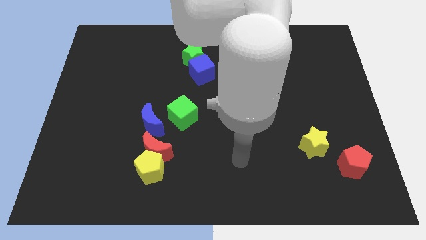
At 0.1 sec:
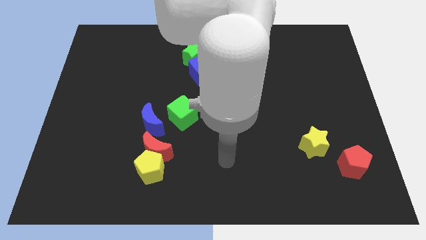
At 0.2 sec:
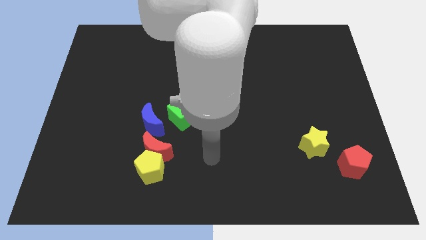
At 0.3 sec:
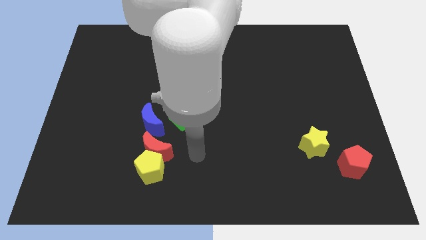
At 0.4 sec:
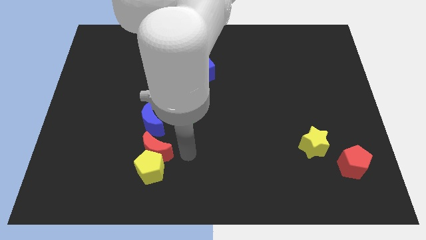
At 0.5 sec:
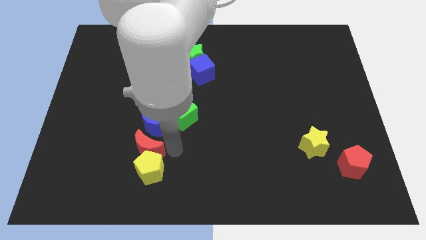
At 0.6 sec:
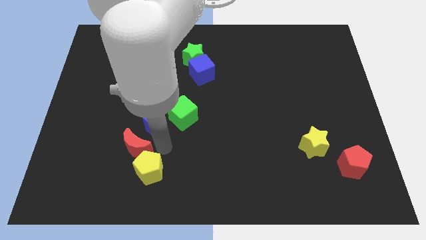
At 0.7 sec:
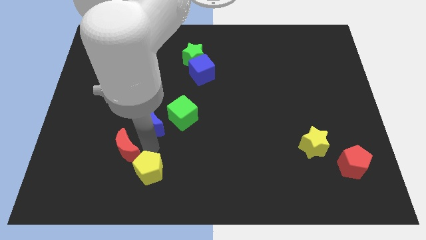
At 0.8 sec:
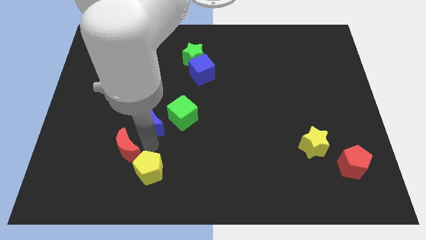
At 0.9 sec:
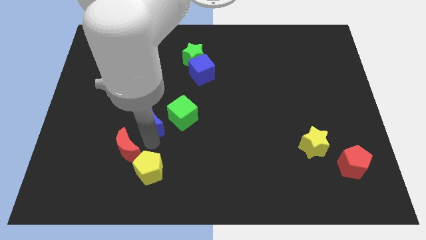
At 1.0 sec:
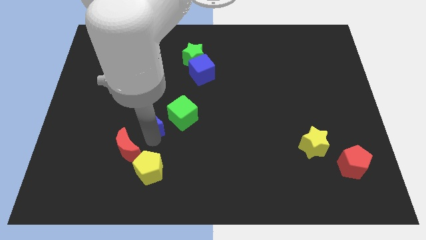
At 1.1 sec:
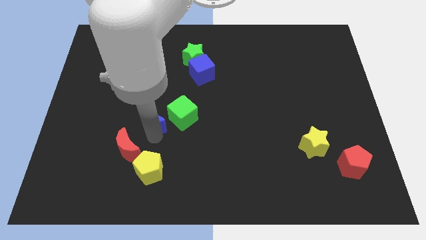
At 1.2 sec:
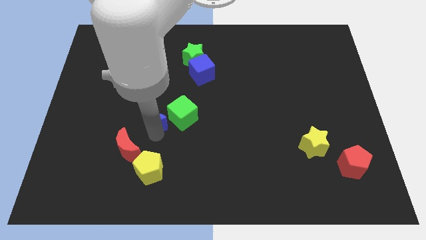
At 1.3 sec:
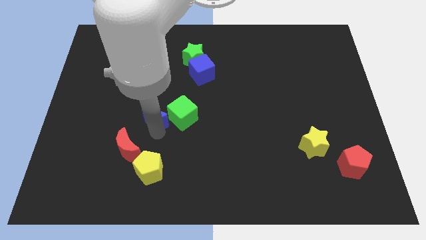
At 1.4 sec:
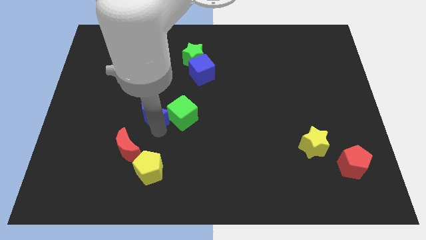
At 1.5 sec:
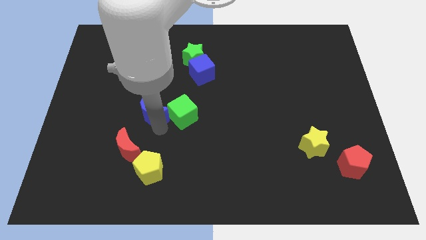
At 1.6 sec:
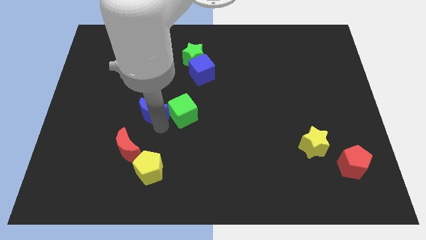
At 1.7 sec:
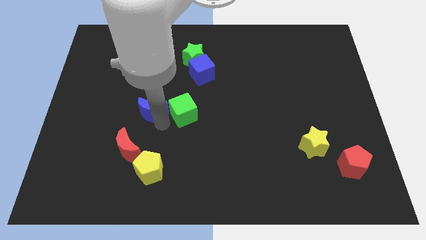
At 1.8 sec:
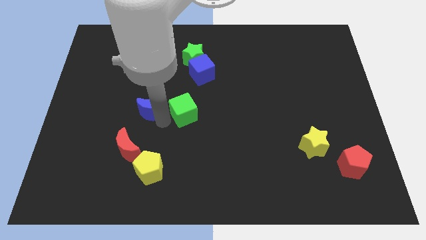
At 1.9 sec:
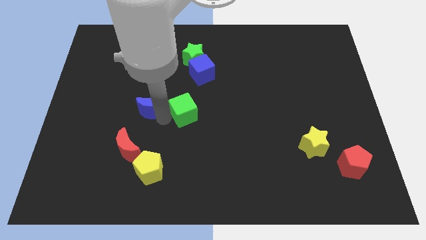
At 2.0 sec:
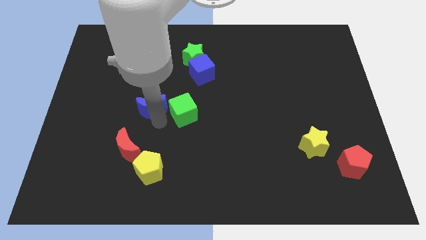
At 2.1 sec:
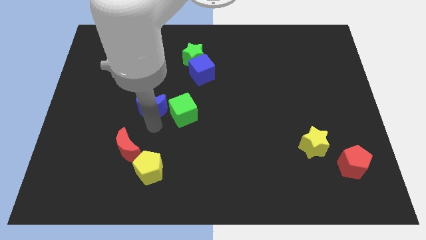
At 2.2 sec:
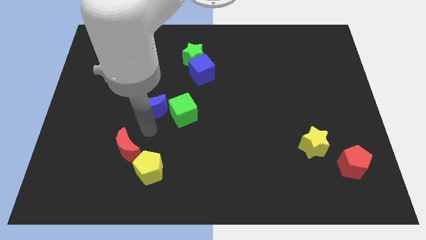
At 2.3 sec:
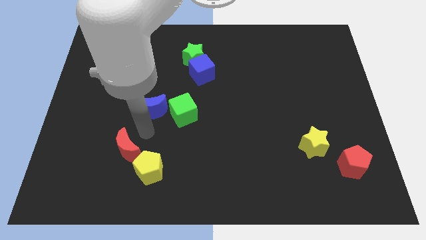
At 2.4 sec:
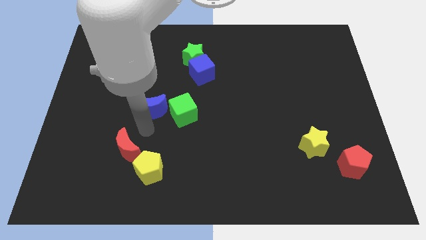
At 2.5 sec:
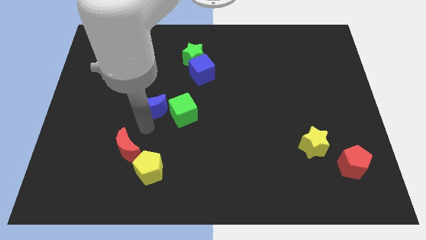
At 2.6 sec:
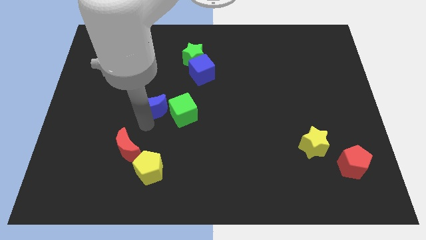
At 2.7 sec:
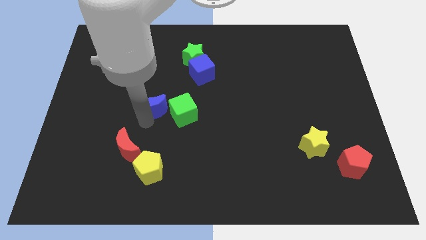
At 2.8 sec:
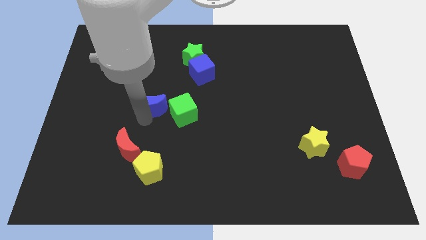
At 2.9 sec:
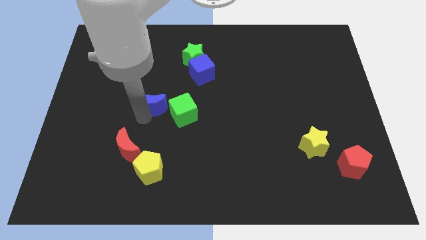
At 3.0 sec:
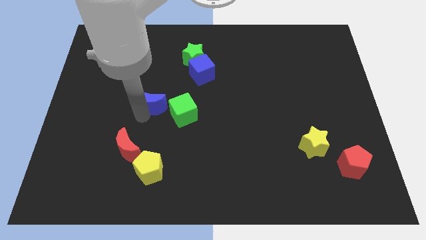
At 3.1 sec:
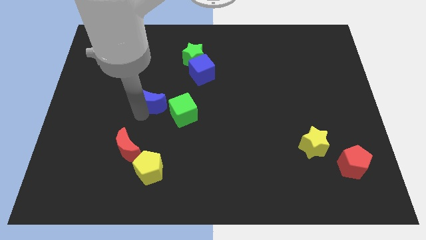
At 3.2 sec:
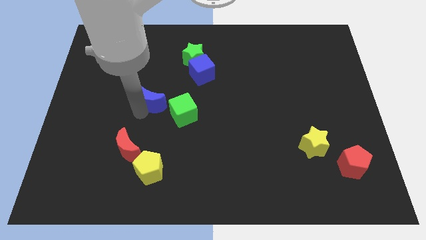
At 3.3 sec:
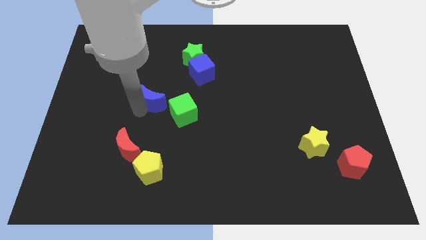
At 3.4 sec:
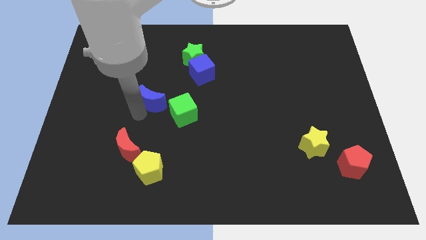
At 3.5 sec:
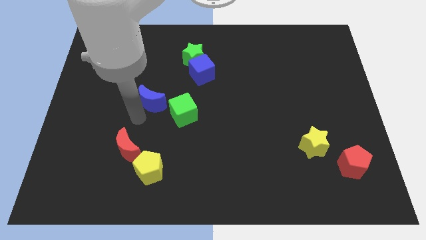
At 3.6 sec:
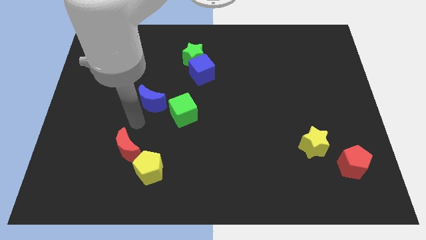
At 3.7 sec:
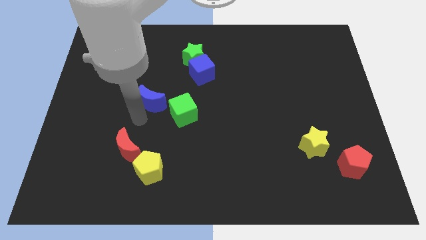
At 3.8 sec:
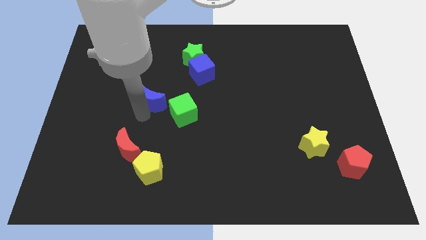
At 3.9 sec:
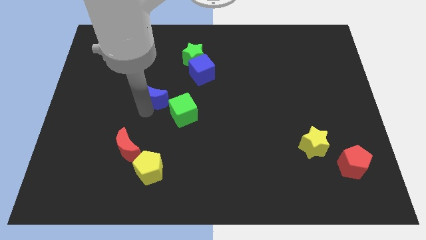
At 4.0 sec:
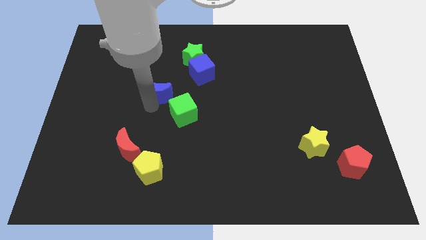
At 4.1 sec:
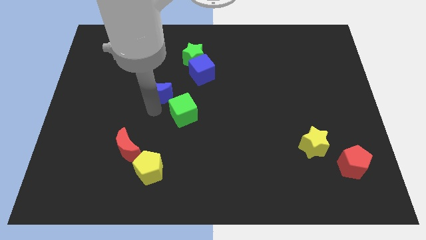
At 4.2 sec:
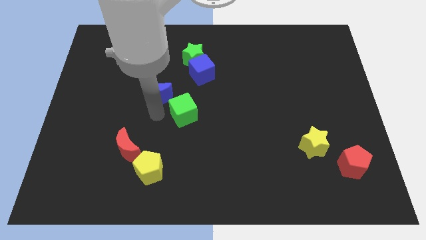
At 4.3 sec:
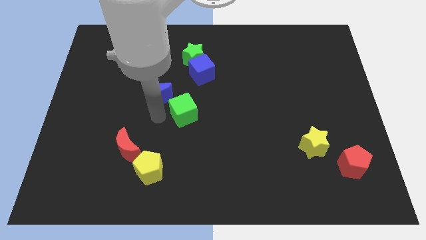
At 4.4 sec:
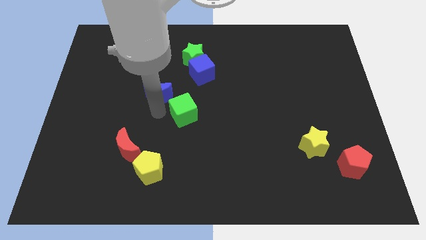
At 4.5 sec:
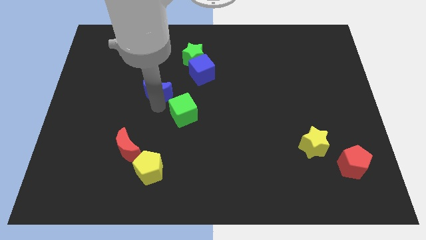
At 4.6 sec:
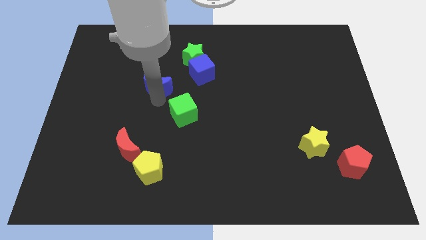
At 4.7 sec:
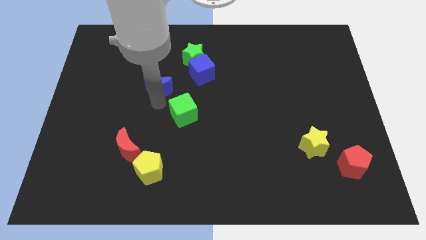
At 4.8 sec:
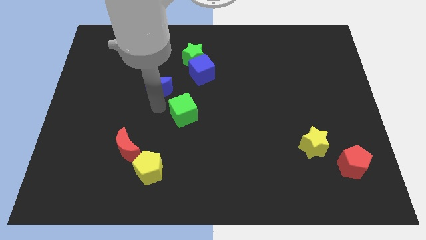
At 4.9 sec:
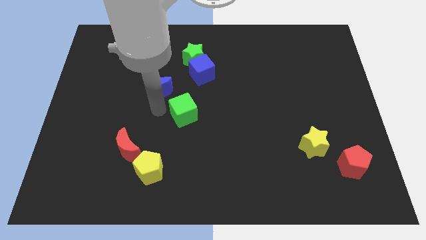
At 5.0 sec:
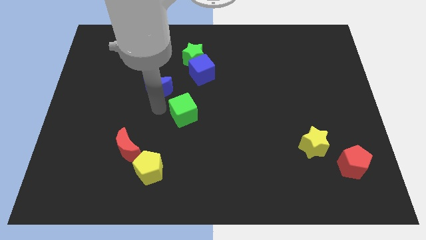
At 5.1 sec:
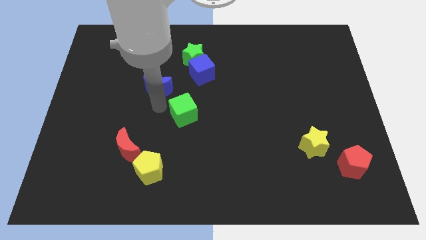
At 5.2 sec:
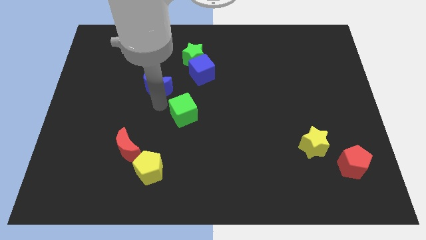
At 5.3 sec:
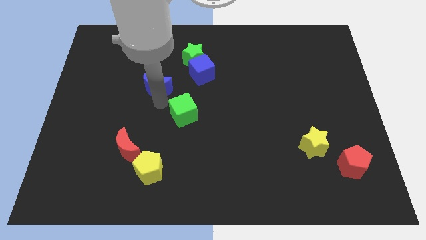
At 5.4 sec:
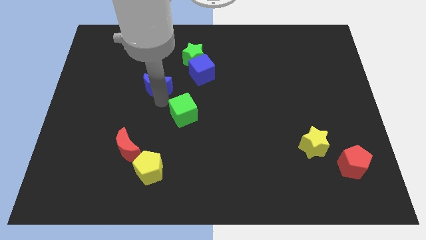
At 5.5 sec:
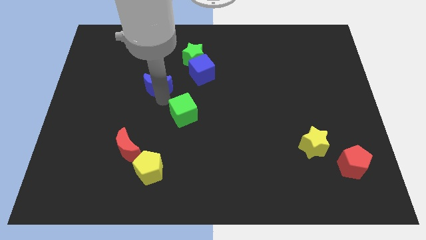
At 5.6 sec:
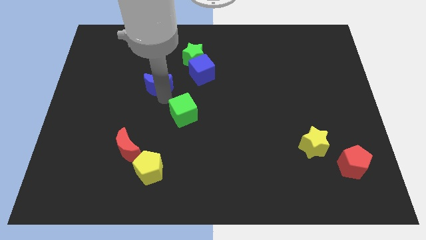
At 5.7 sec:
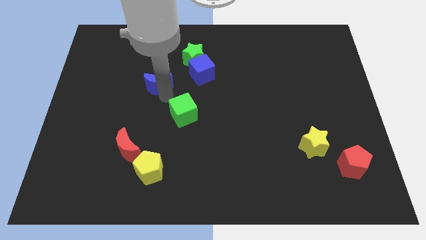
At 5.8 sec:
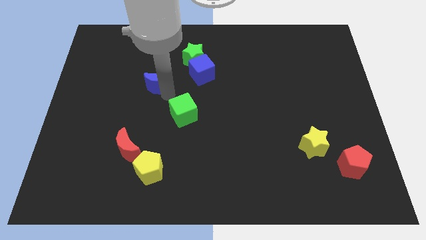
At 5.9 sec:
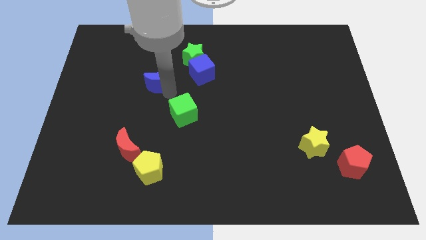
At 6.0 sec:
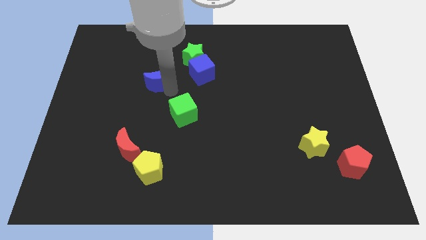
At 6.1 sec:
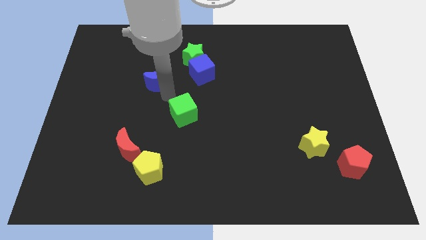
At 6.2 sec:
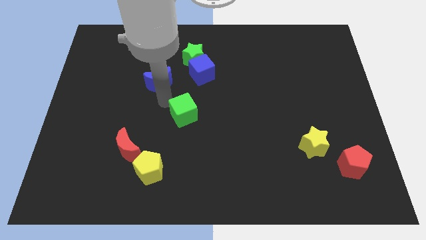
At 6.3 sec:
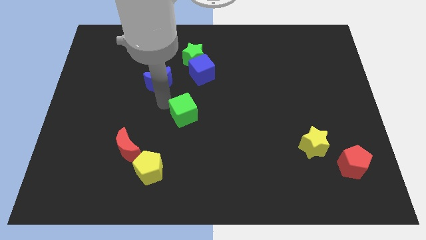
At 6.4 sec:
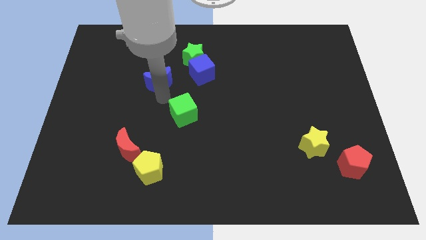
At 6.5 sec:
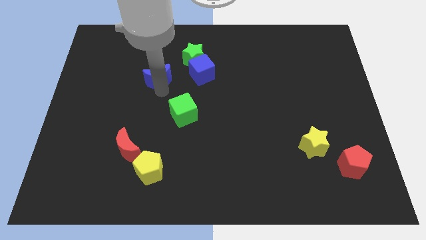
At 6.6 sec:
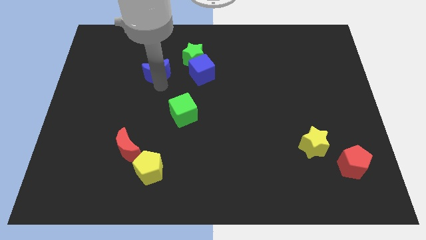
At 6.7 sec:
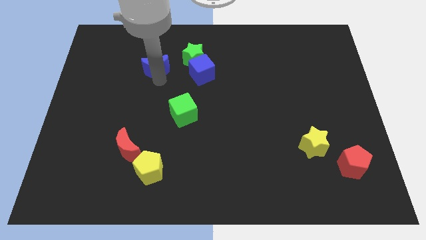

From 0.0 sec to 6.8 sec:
push the blue moon to the left of the green star
